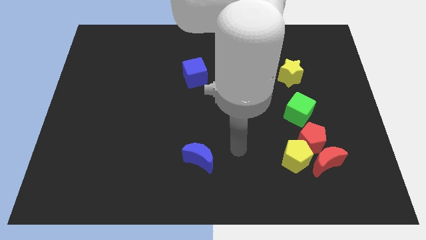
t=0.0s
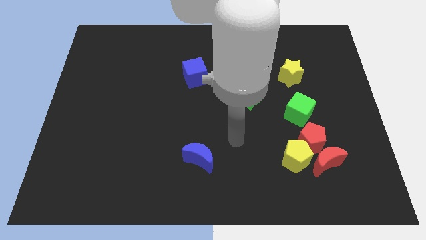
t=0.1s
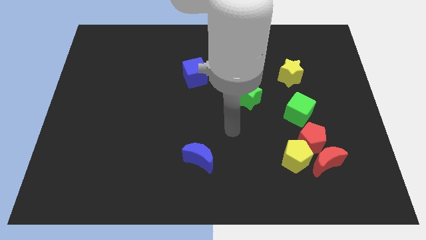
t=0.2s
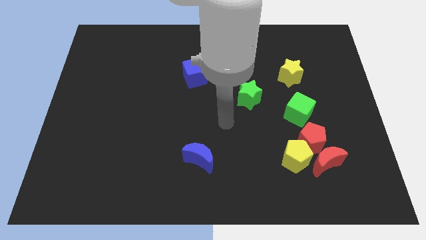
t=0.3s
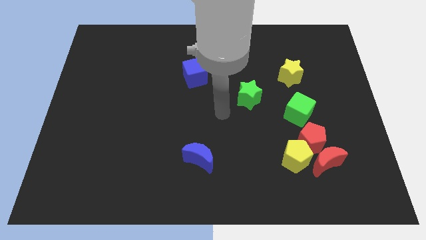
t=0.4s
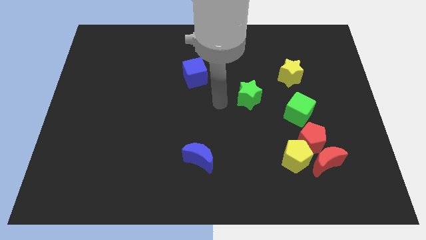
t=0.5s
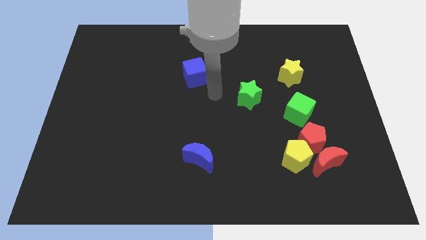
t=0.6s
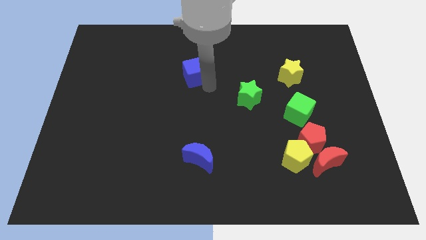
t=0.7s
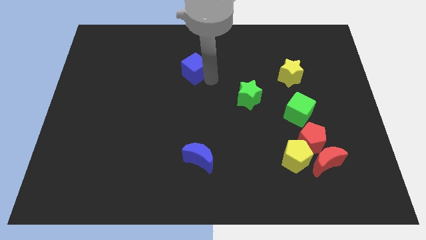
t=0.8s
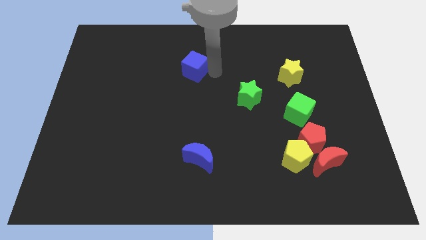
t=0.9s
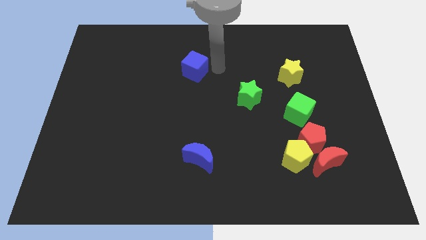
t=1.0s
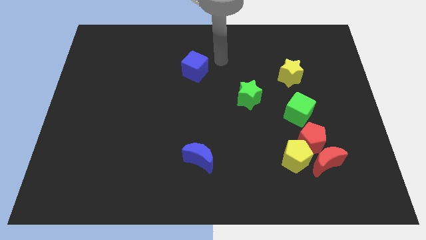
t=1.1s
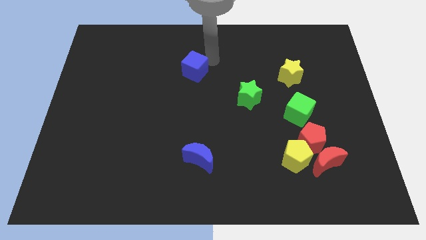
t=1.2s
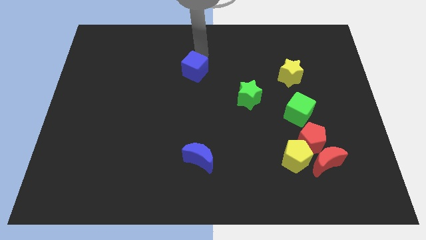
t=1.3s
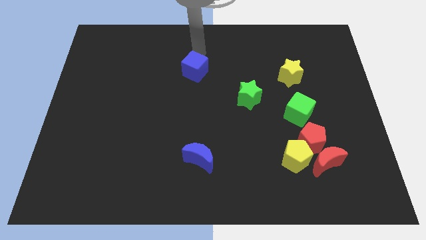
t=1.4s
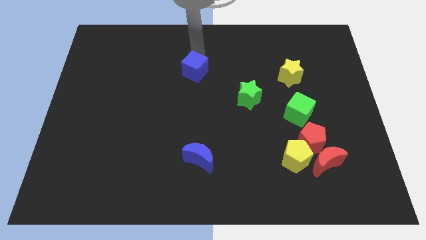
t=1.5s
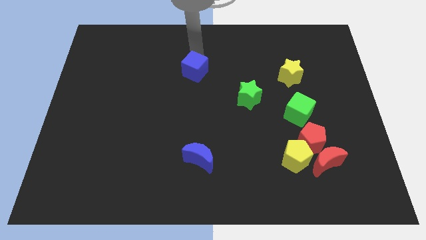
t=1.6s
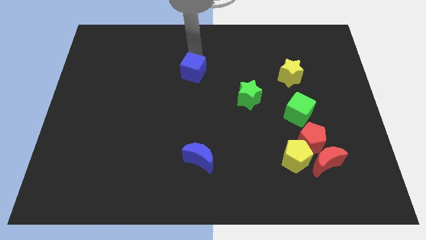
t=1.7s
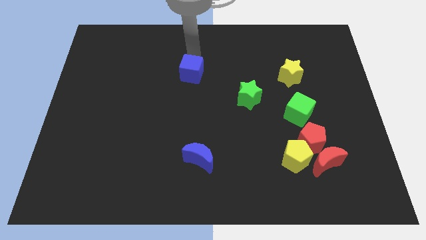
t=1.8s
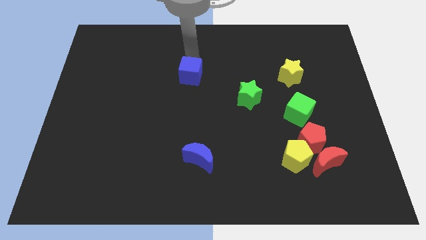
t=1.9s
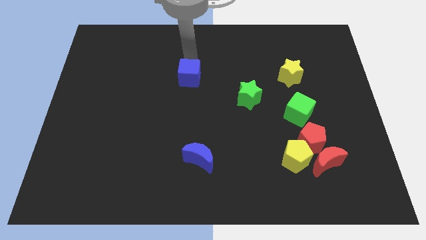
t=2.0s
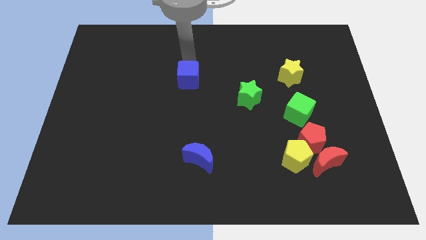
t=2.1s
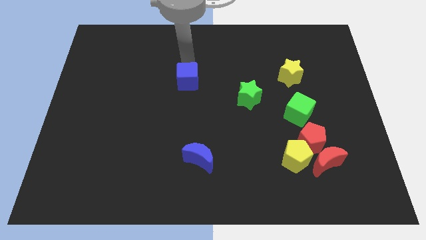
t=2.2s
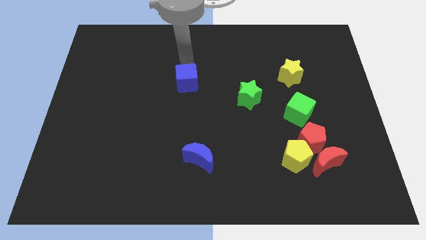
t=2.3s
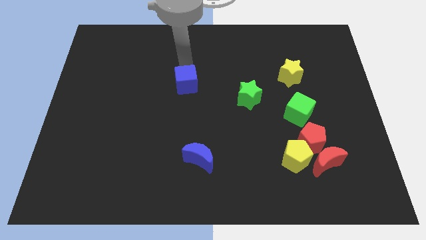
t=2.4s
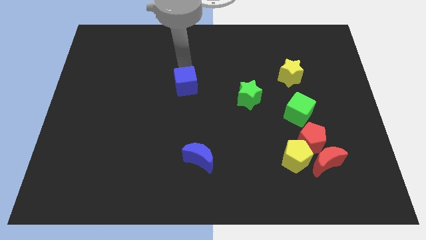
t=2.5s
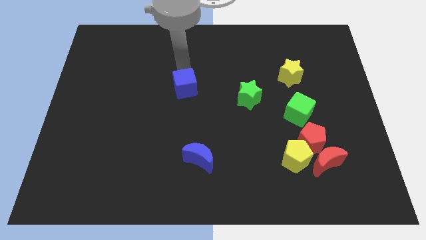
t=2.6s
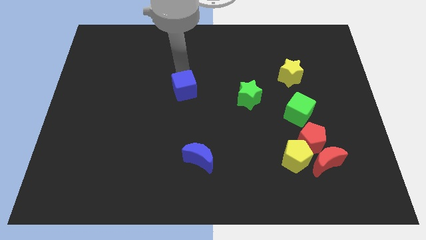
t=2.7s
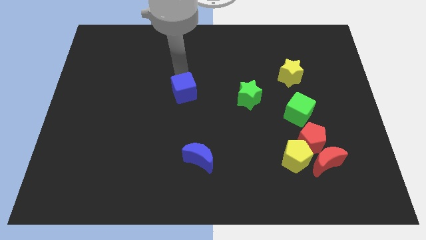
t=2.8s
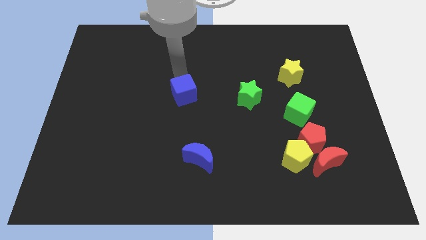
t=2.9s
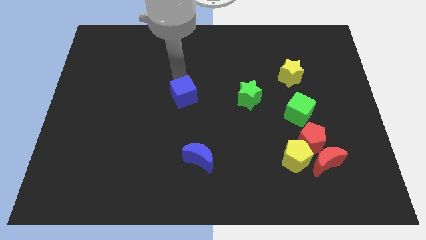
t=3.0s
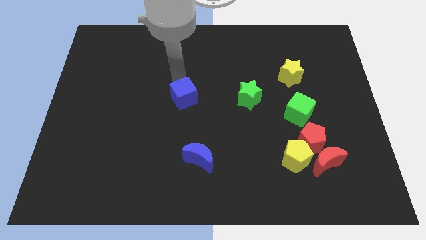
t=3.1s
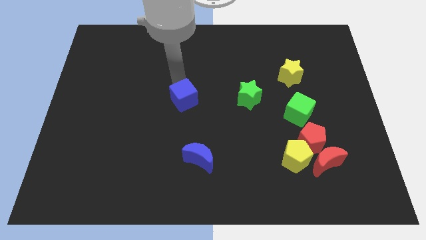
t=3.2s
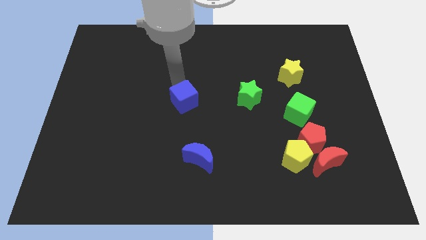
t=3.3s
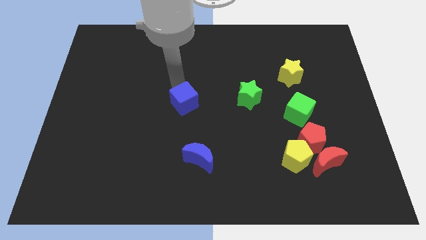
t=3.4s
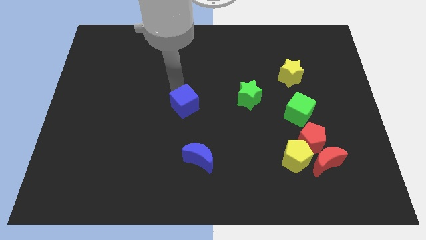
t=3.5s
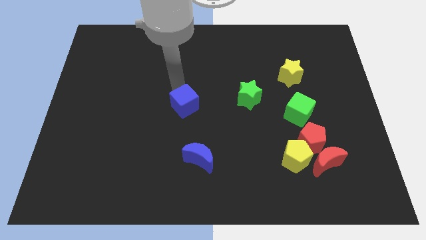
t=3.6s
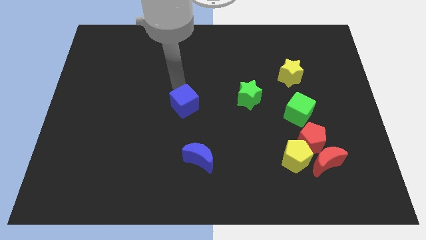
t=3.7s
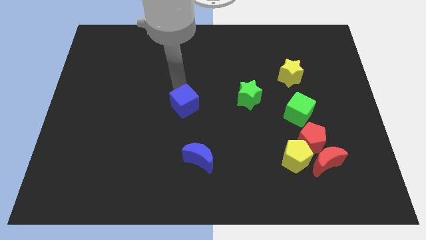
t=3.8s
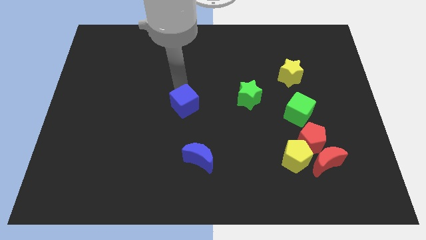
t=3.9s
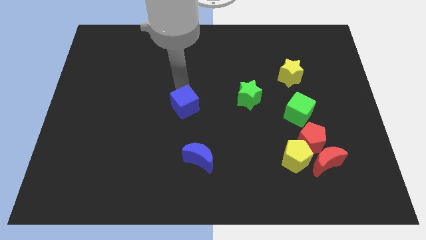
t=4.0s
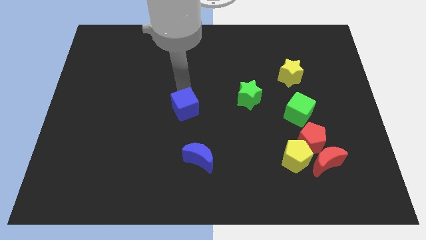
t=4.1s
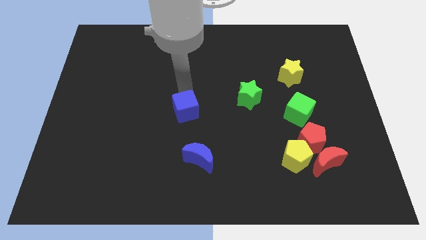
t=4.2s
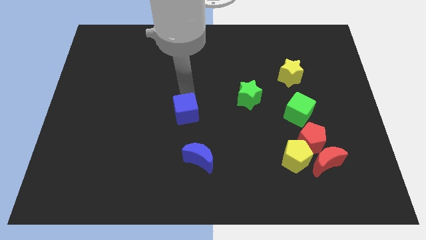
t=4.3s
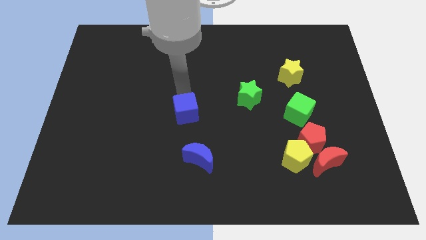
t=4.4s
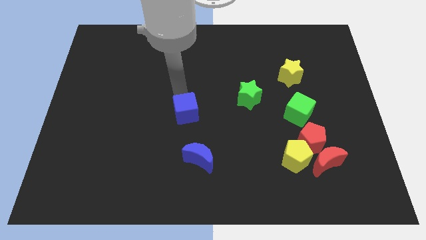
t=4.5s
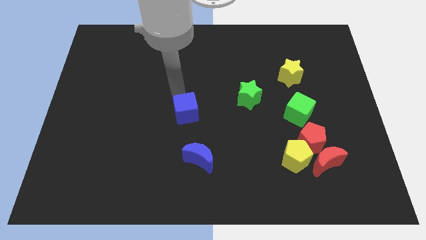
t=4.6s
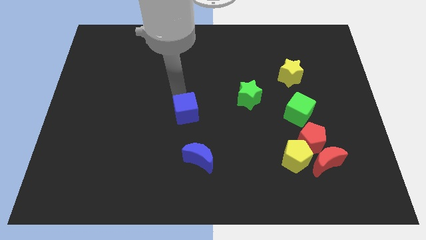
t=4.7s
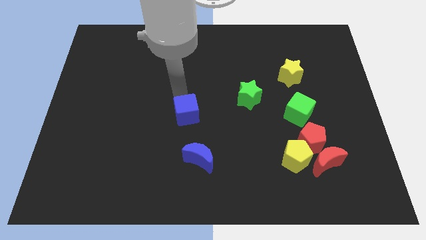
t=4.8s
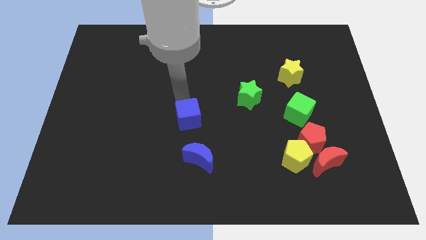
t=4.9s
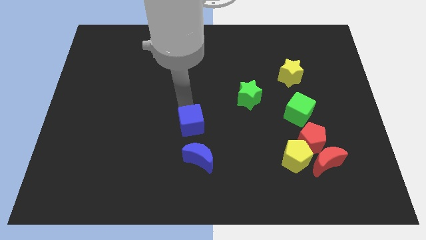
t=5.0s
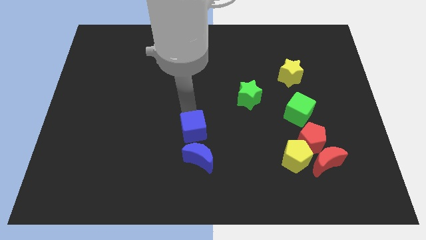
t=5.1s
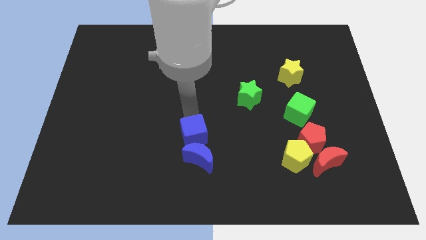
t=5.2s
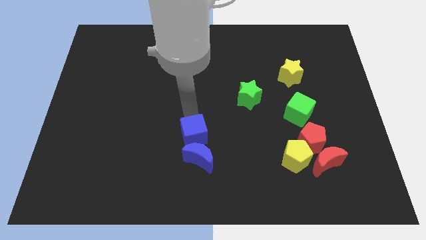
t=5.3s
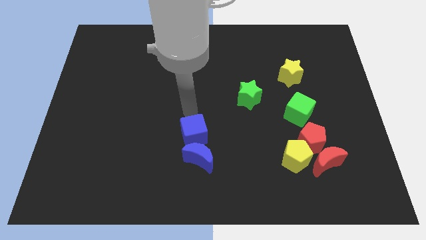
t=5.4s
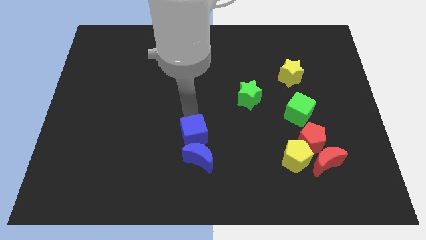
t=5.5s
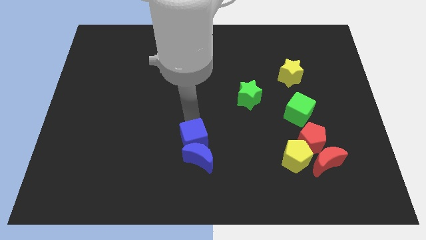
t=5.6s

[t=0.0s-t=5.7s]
push the blue cube next to the blue moon
